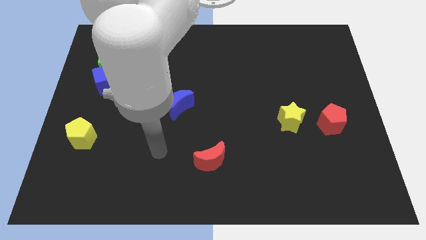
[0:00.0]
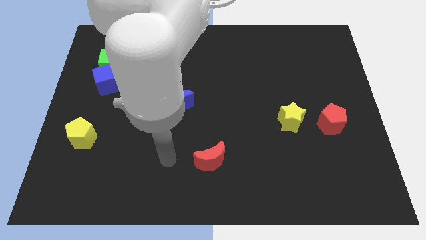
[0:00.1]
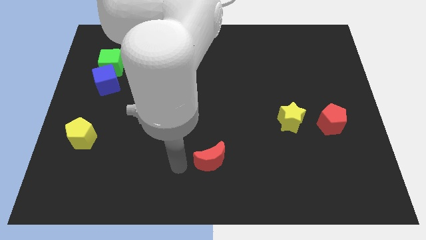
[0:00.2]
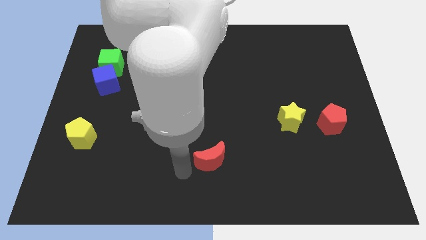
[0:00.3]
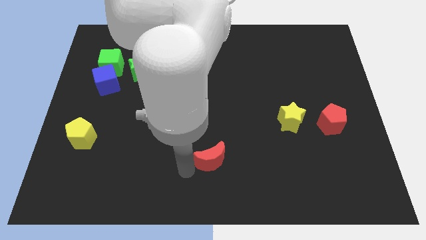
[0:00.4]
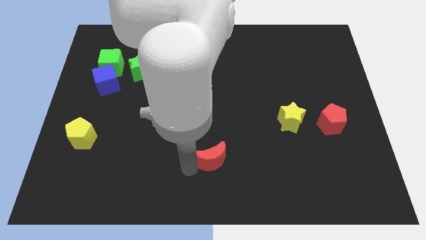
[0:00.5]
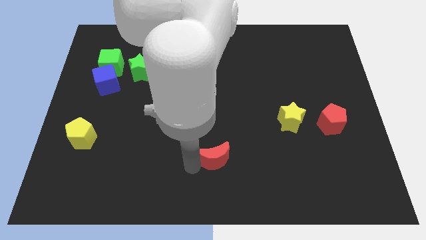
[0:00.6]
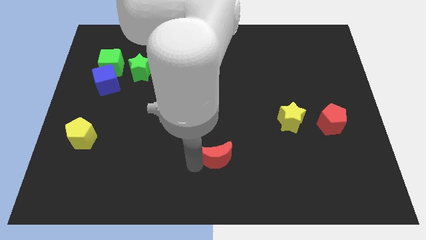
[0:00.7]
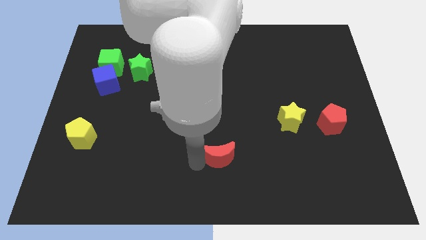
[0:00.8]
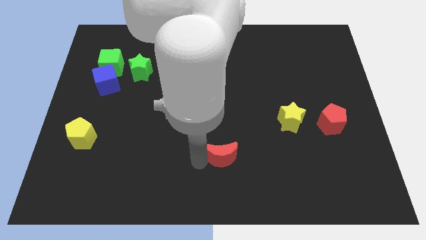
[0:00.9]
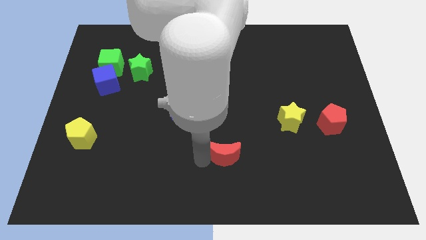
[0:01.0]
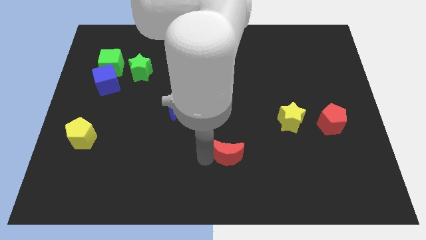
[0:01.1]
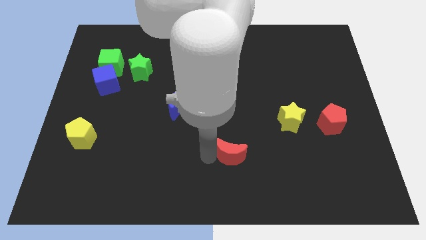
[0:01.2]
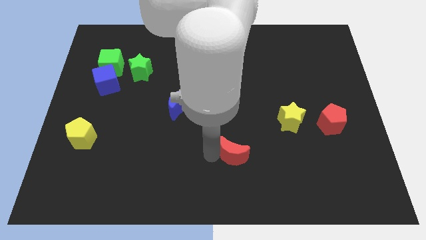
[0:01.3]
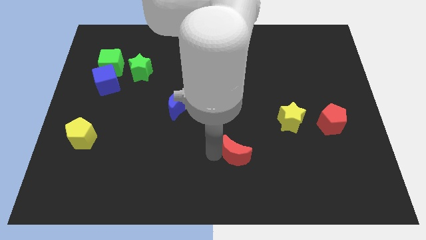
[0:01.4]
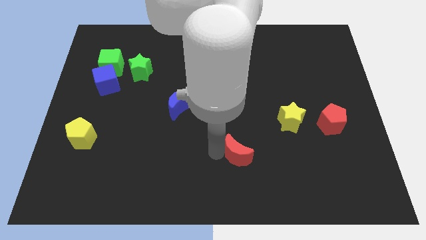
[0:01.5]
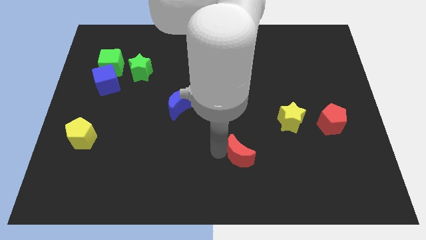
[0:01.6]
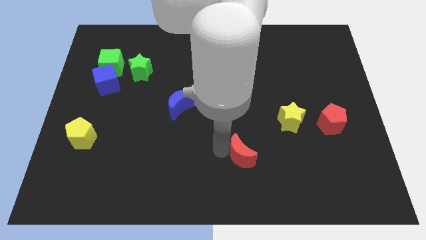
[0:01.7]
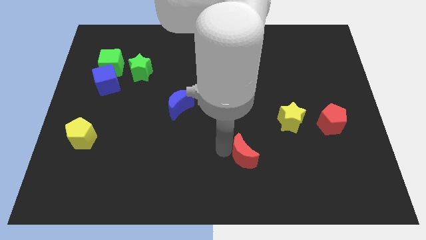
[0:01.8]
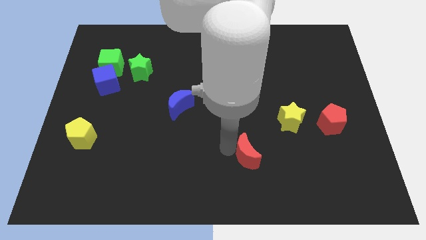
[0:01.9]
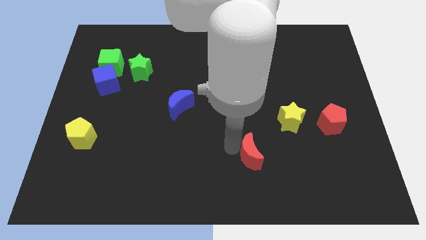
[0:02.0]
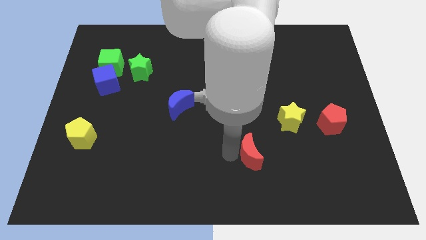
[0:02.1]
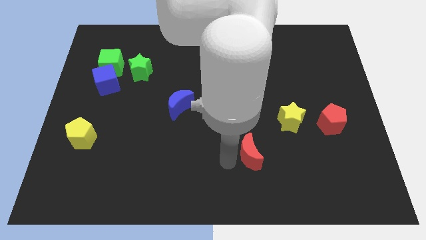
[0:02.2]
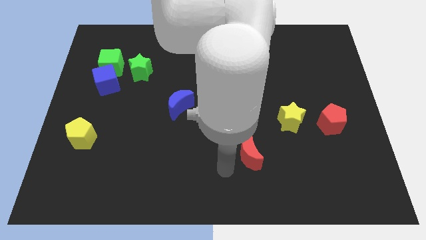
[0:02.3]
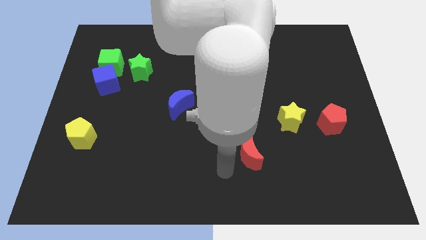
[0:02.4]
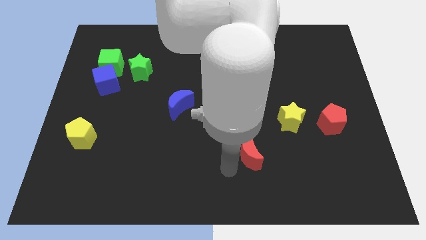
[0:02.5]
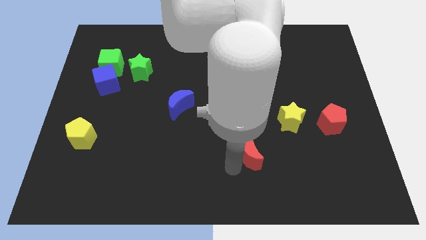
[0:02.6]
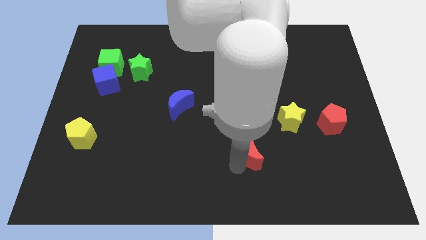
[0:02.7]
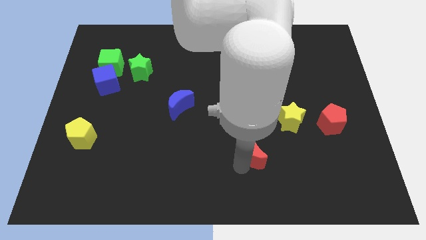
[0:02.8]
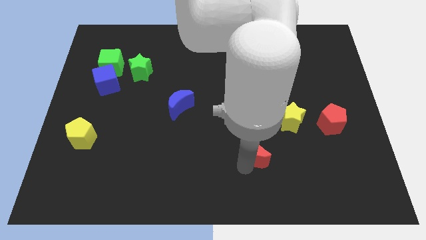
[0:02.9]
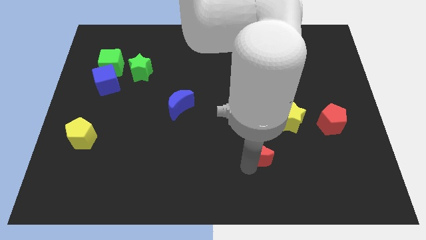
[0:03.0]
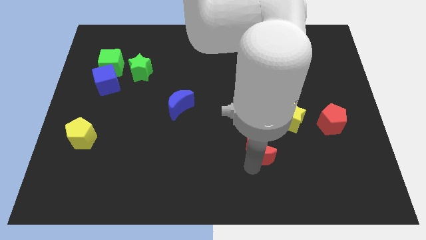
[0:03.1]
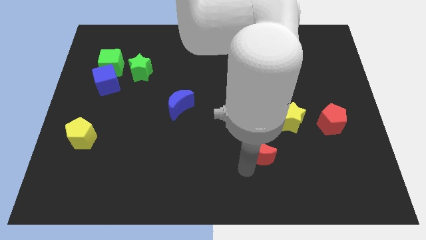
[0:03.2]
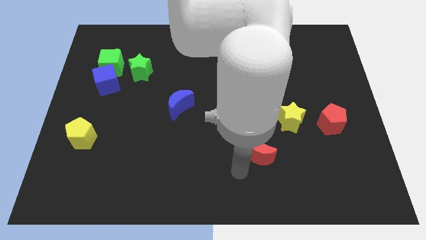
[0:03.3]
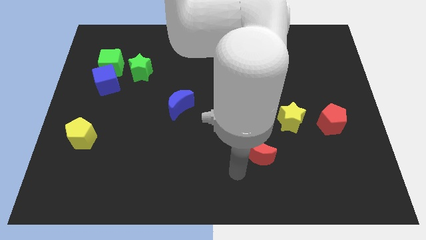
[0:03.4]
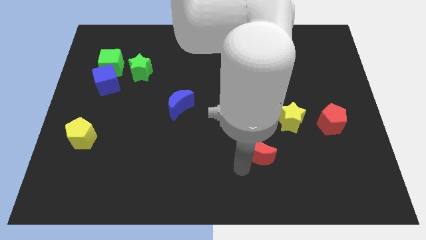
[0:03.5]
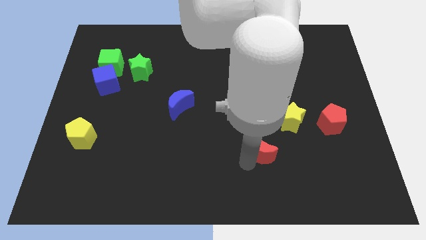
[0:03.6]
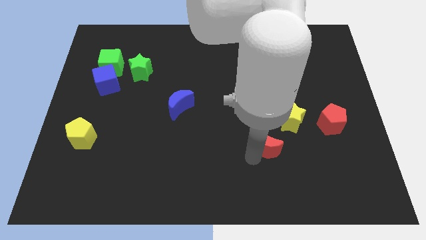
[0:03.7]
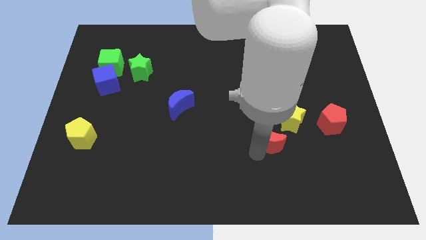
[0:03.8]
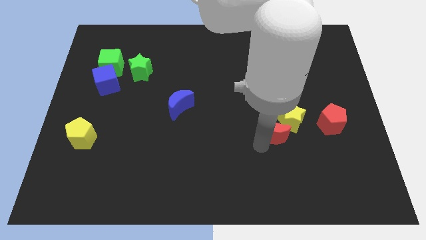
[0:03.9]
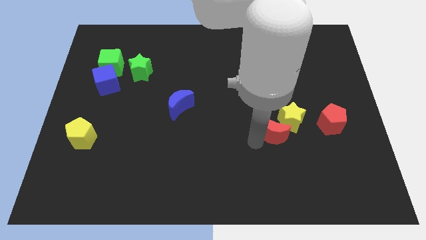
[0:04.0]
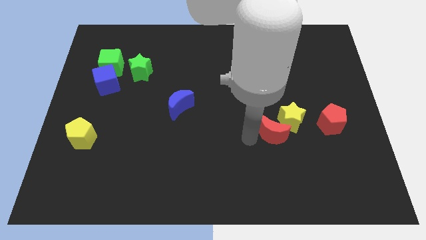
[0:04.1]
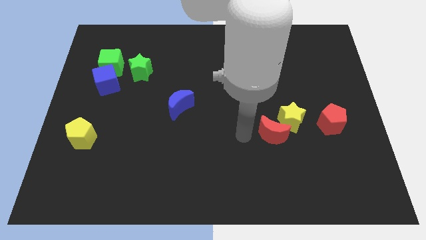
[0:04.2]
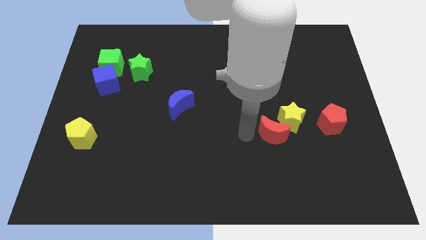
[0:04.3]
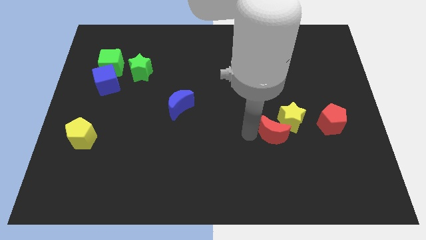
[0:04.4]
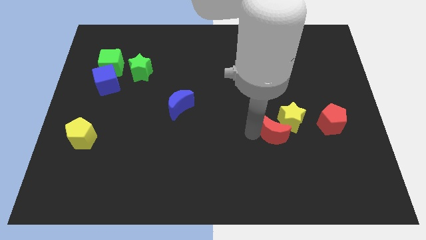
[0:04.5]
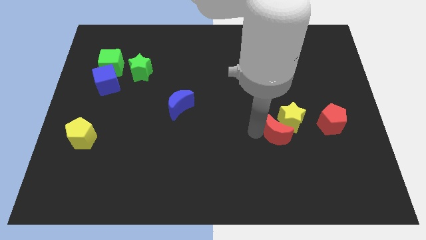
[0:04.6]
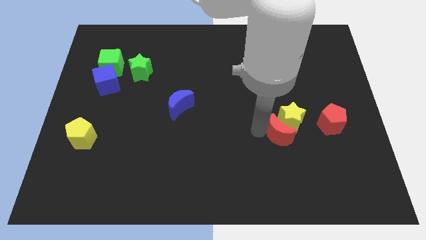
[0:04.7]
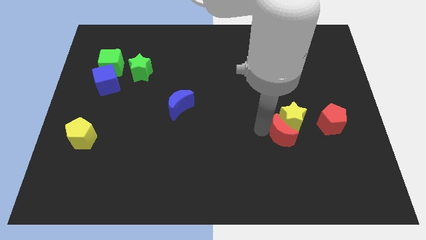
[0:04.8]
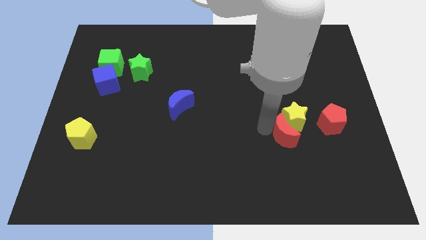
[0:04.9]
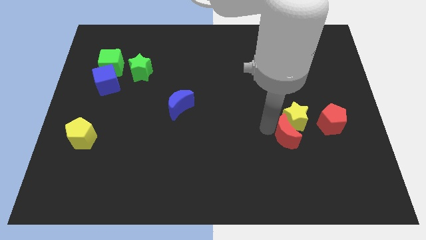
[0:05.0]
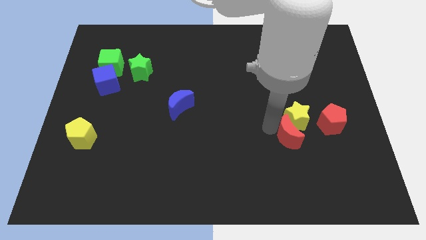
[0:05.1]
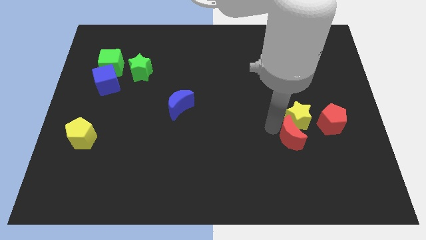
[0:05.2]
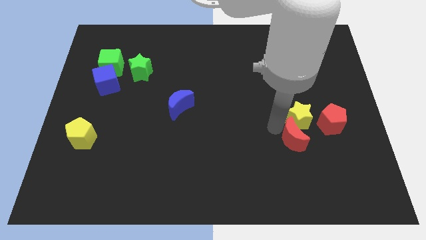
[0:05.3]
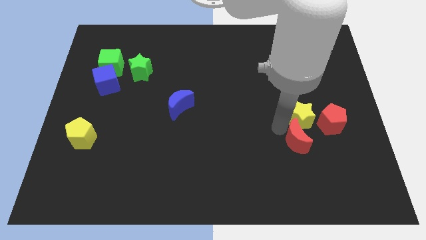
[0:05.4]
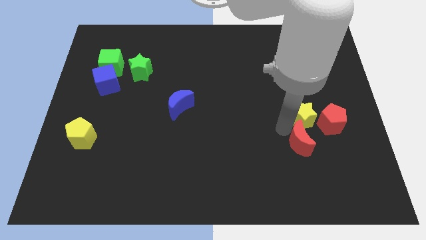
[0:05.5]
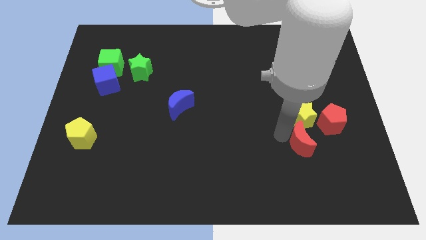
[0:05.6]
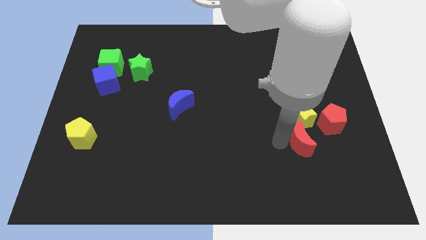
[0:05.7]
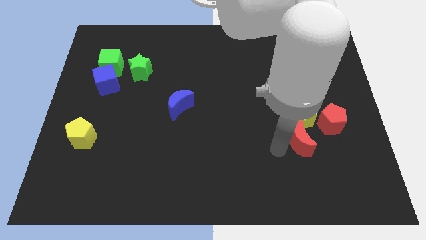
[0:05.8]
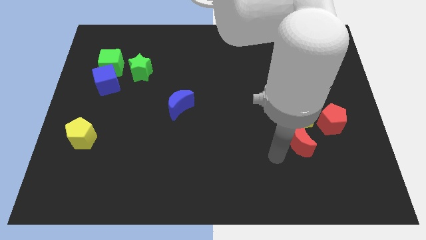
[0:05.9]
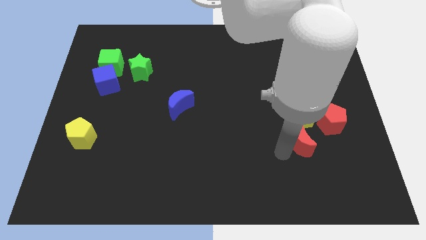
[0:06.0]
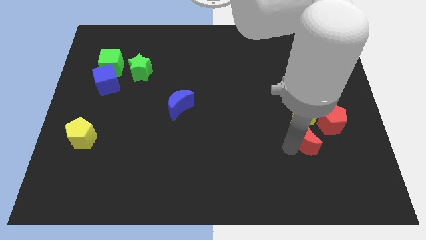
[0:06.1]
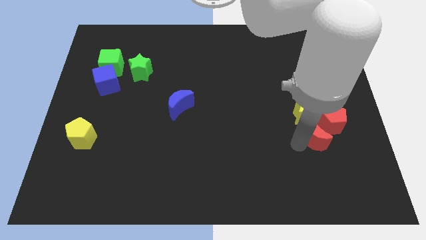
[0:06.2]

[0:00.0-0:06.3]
slide the red moon next to the red pentagon
